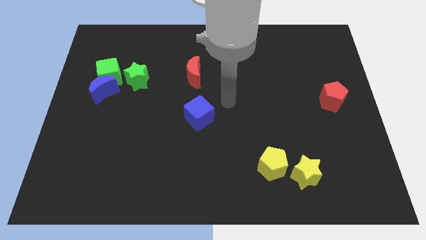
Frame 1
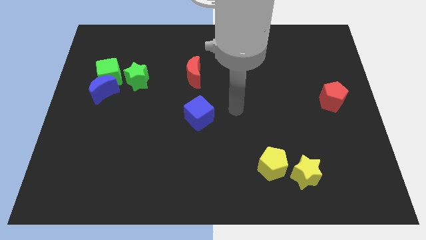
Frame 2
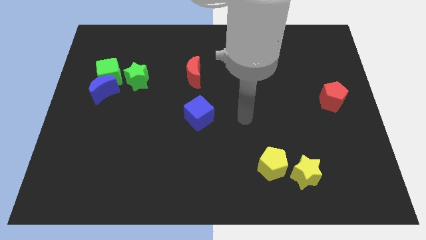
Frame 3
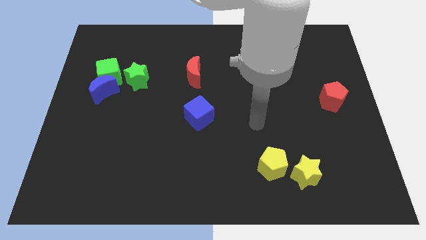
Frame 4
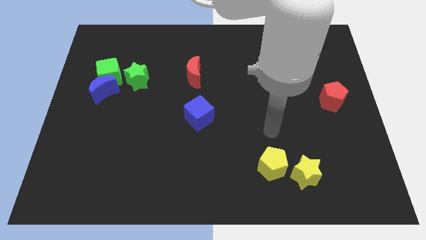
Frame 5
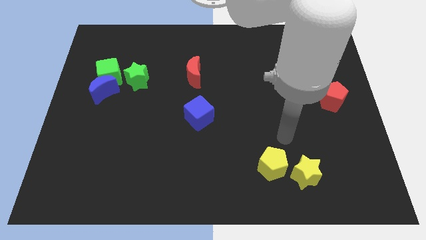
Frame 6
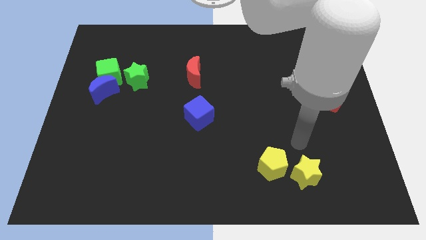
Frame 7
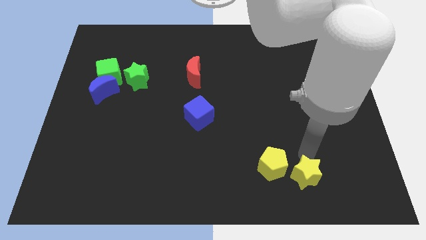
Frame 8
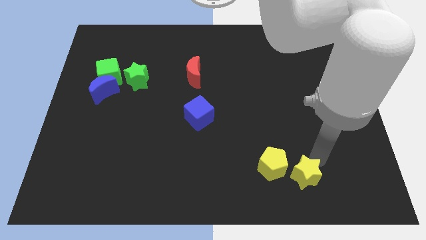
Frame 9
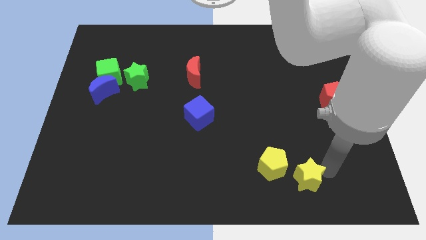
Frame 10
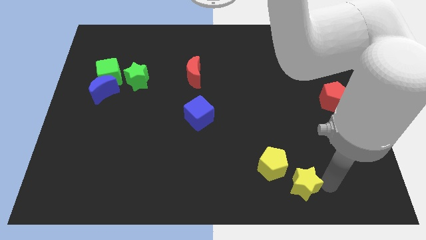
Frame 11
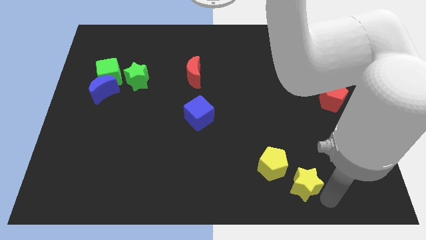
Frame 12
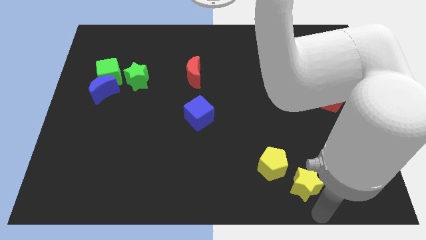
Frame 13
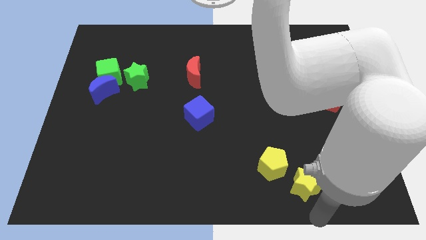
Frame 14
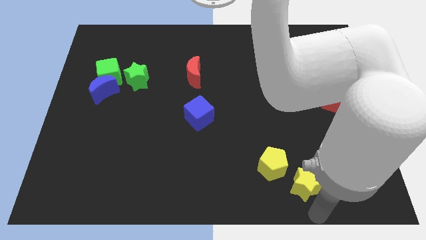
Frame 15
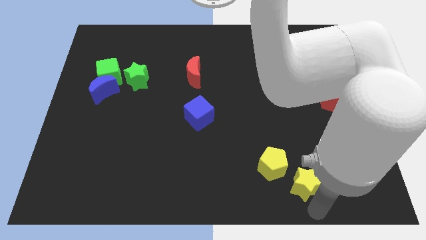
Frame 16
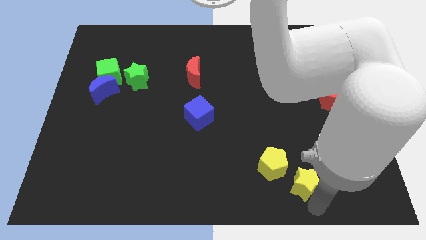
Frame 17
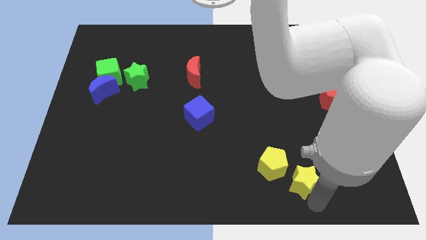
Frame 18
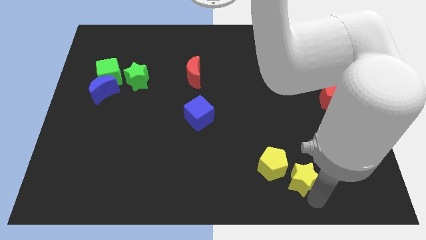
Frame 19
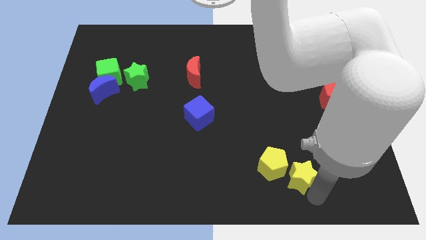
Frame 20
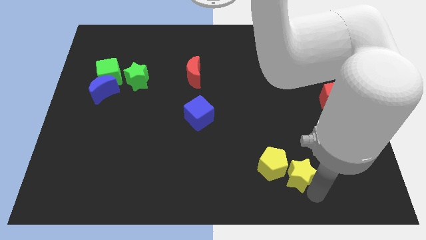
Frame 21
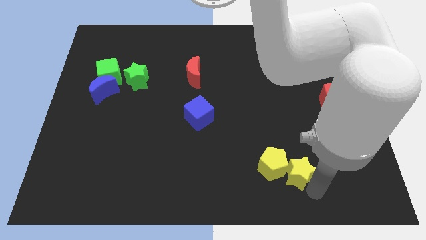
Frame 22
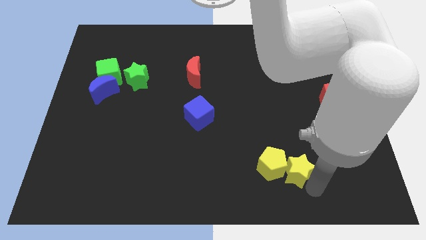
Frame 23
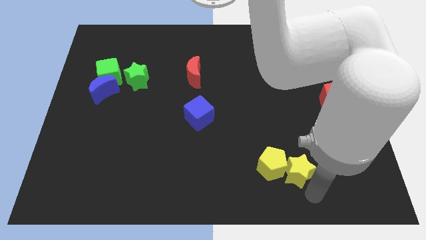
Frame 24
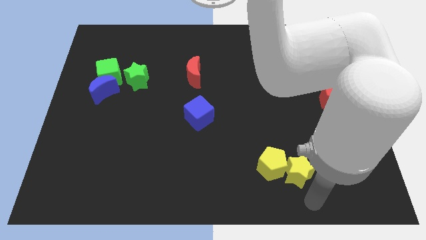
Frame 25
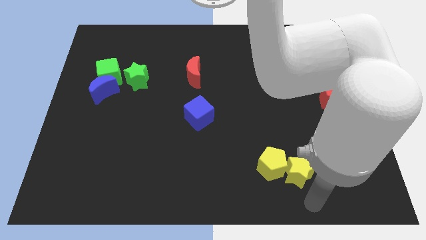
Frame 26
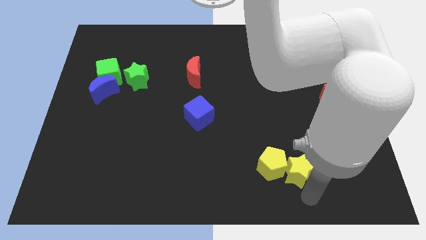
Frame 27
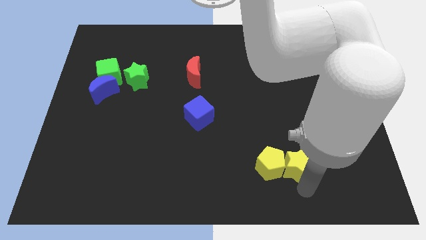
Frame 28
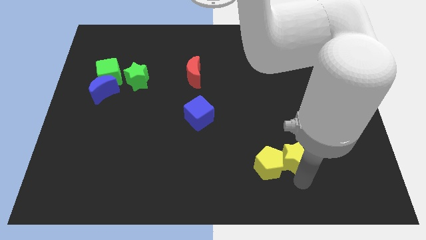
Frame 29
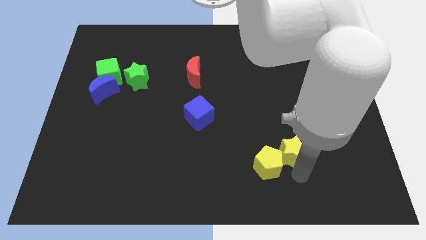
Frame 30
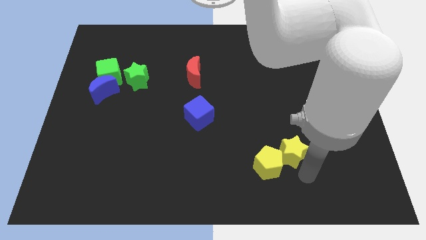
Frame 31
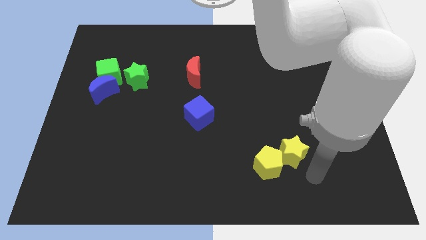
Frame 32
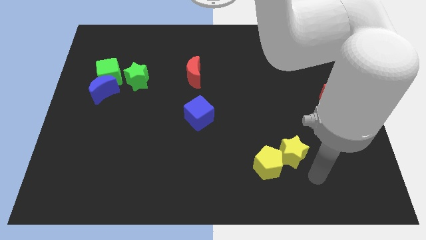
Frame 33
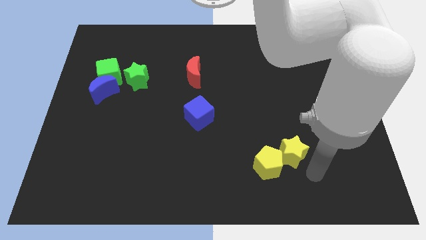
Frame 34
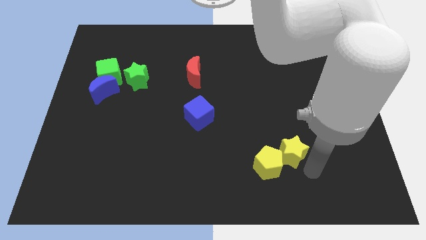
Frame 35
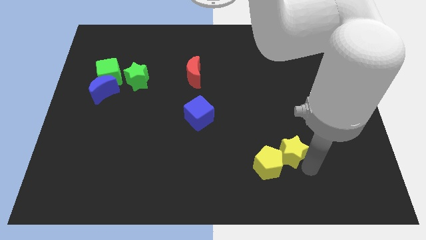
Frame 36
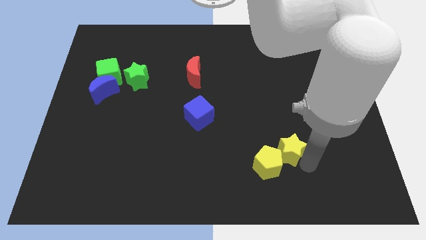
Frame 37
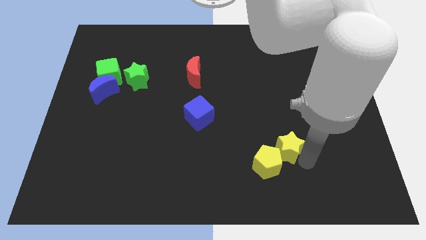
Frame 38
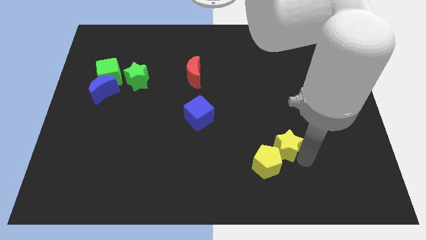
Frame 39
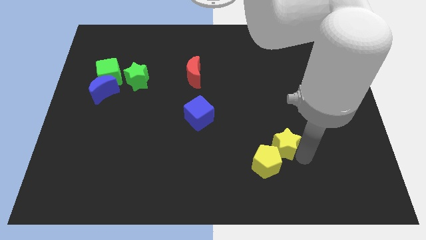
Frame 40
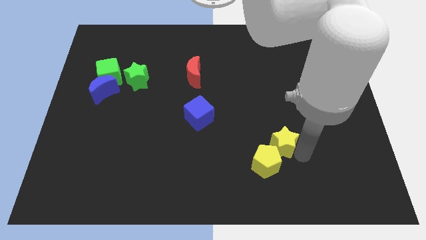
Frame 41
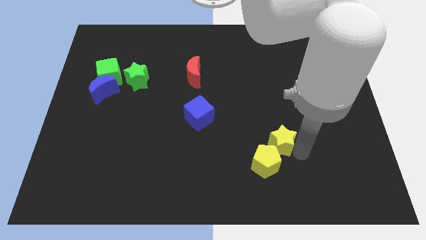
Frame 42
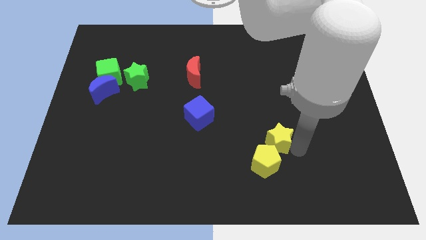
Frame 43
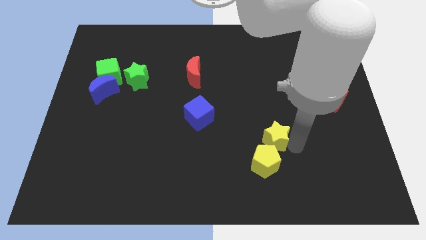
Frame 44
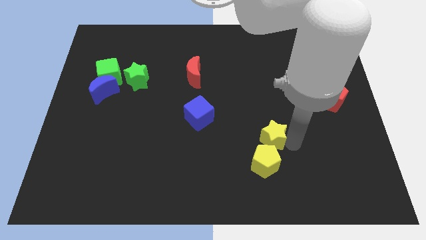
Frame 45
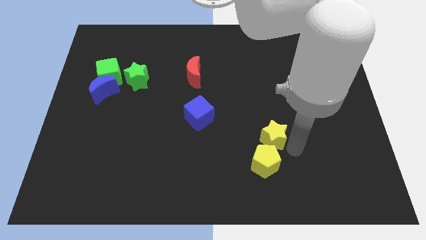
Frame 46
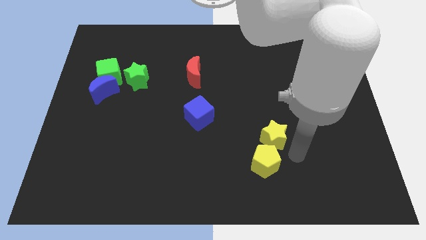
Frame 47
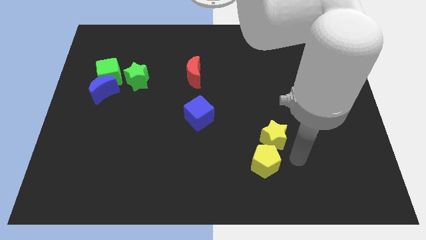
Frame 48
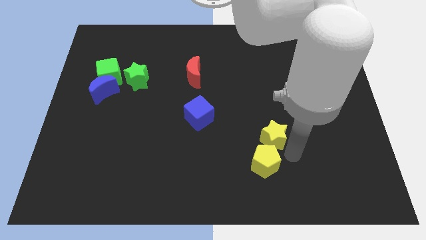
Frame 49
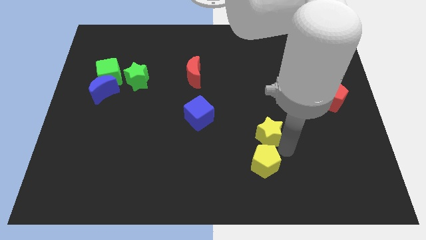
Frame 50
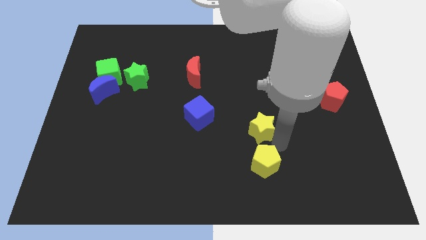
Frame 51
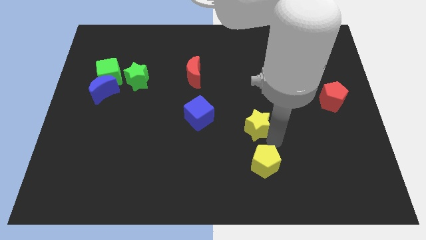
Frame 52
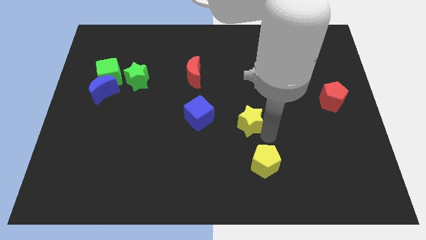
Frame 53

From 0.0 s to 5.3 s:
slide the yellow star to the middle of the board

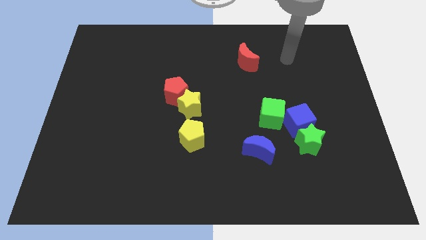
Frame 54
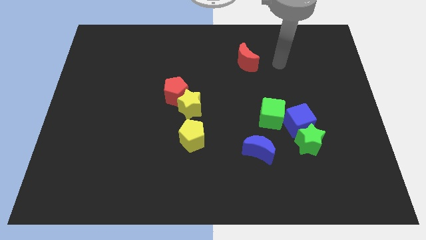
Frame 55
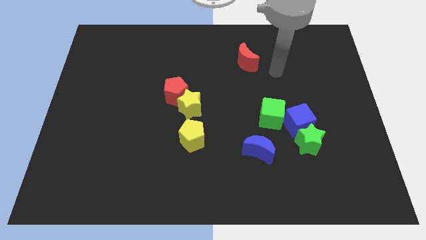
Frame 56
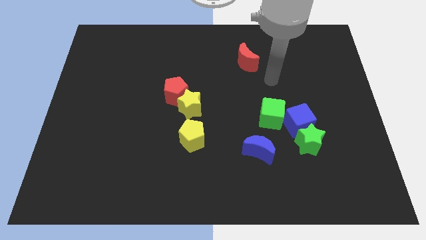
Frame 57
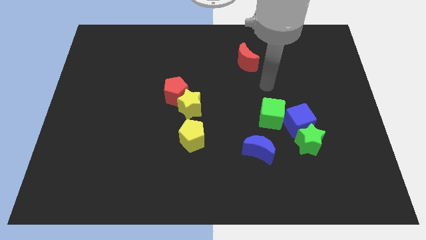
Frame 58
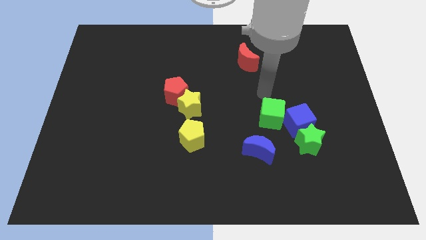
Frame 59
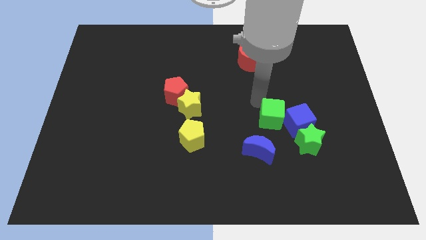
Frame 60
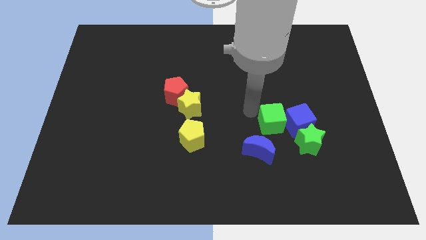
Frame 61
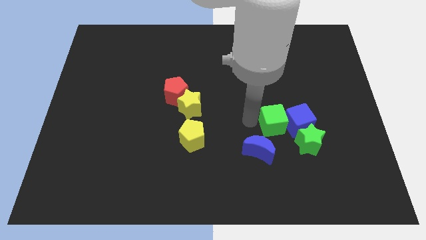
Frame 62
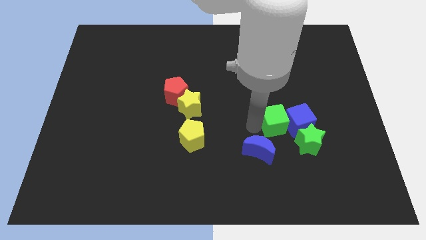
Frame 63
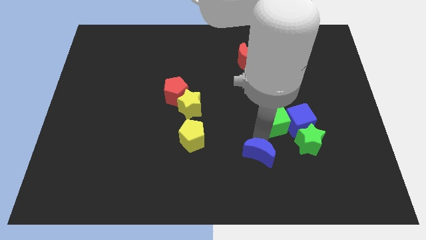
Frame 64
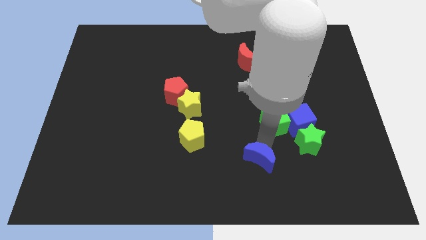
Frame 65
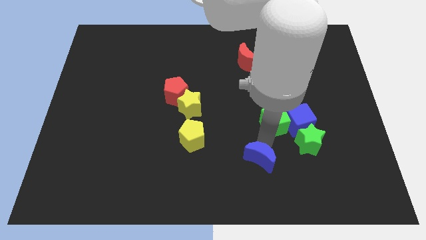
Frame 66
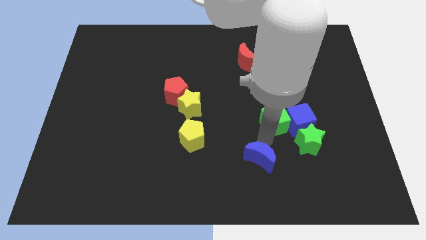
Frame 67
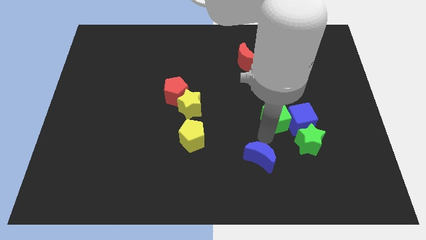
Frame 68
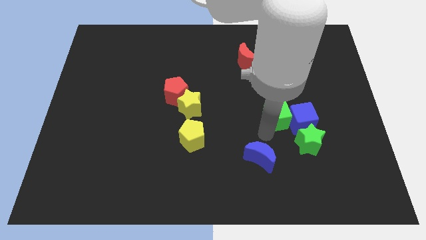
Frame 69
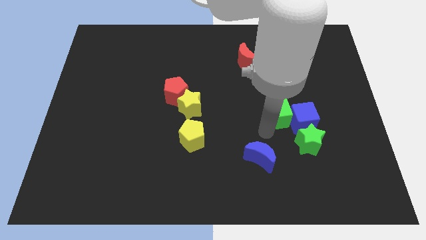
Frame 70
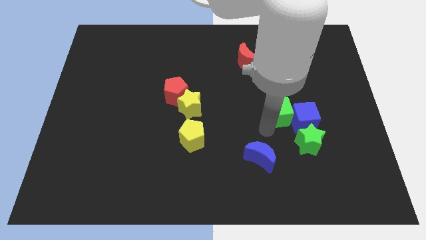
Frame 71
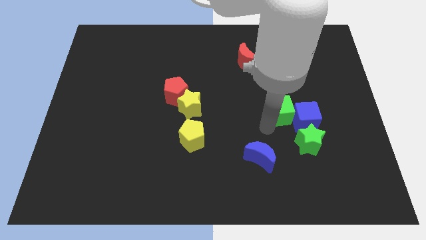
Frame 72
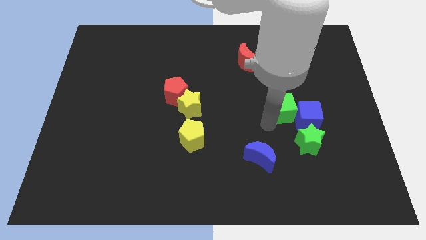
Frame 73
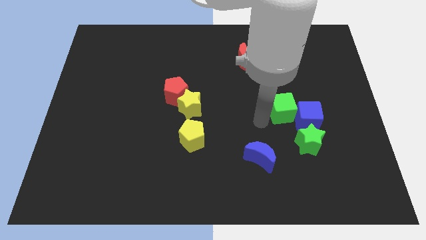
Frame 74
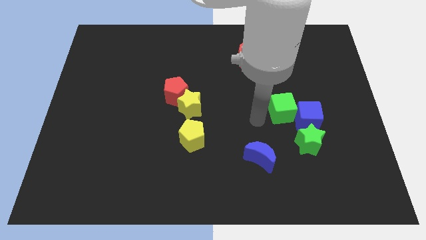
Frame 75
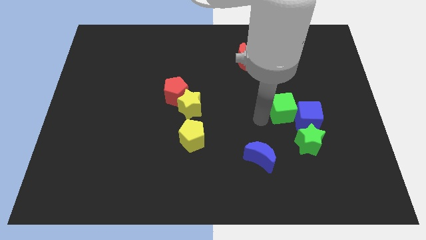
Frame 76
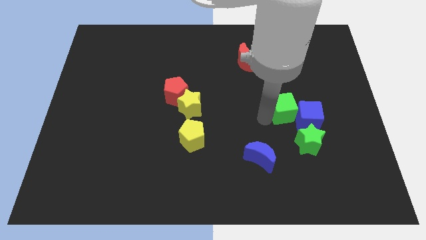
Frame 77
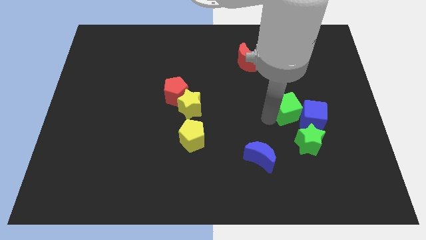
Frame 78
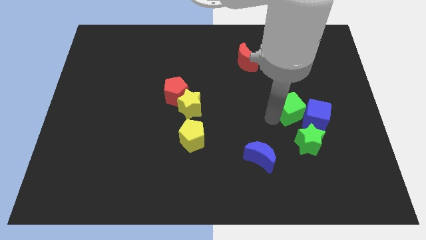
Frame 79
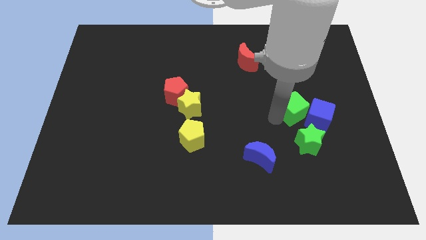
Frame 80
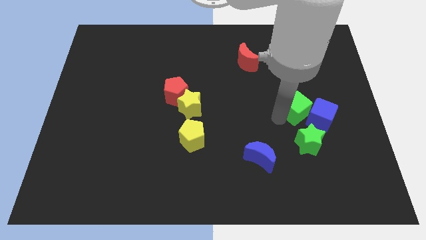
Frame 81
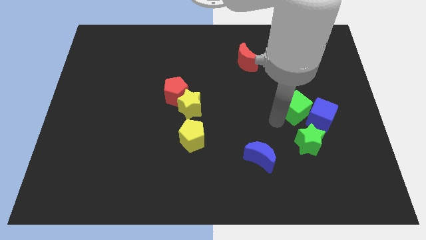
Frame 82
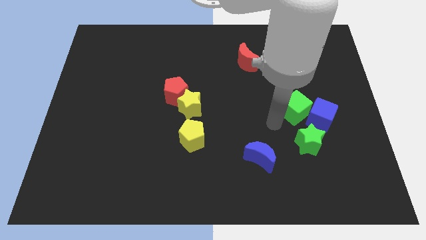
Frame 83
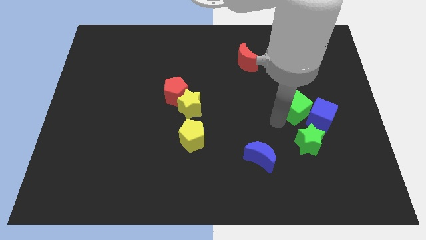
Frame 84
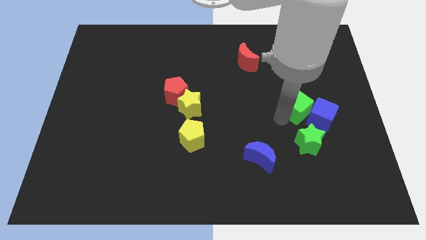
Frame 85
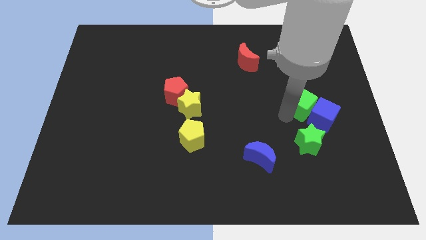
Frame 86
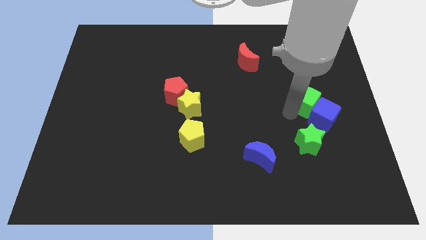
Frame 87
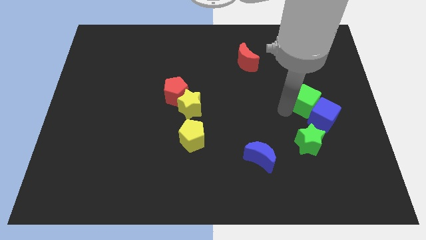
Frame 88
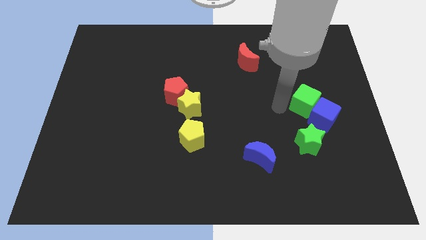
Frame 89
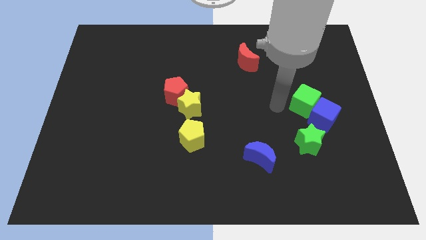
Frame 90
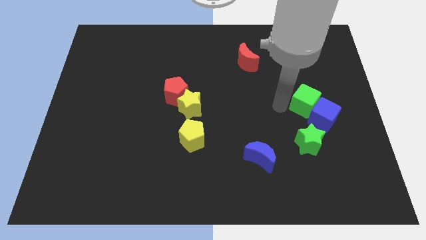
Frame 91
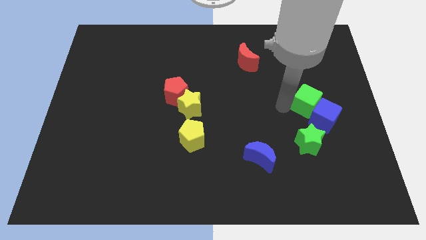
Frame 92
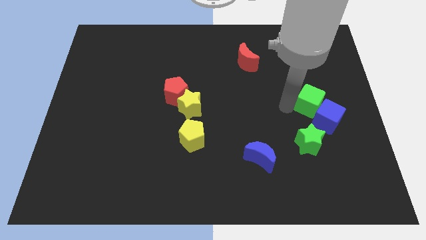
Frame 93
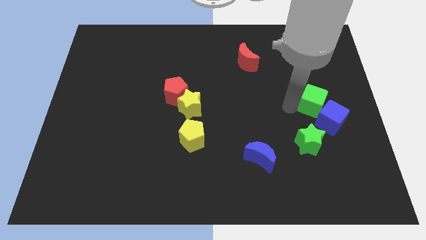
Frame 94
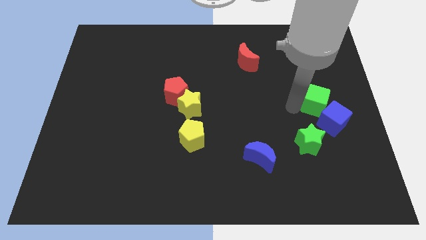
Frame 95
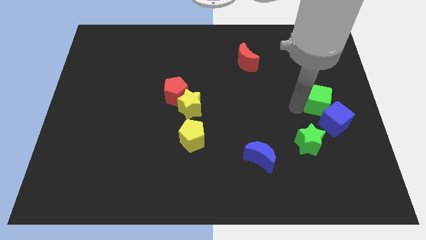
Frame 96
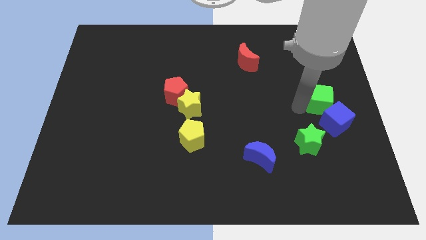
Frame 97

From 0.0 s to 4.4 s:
move the green cube to the center right
